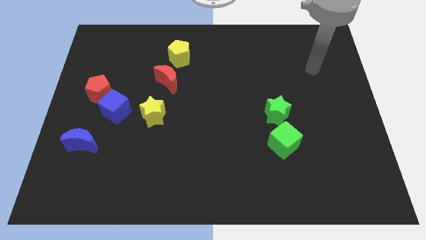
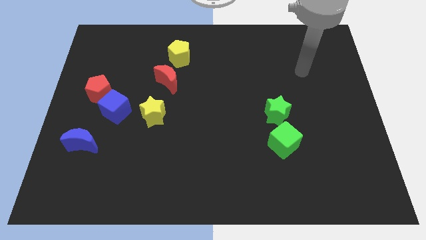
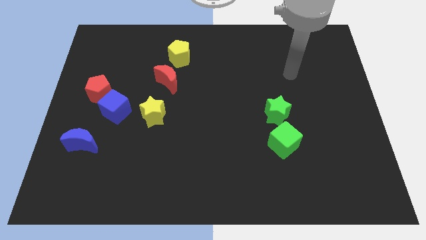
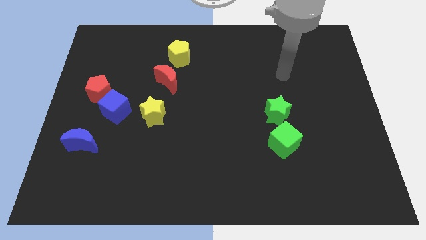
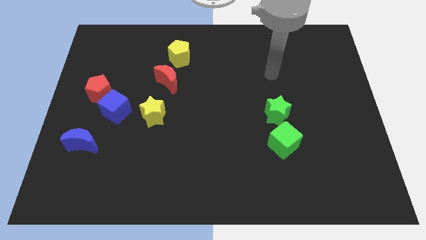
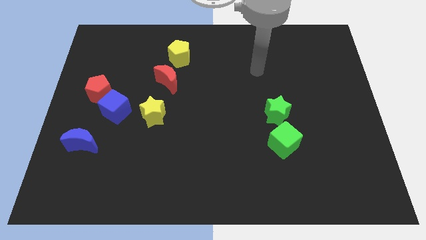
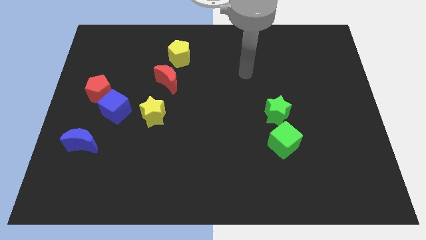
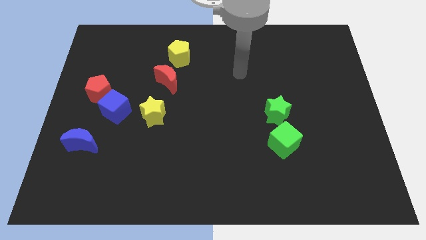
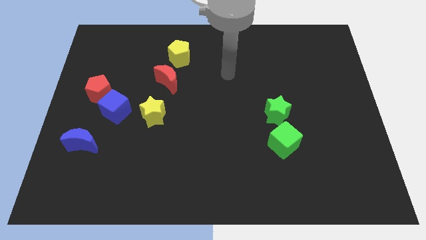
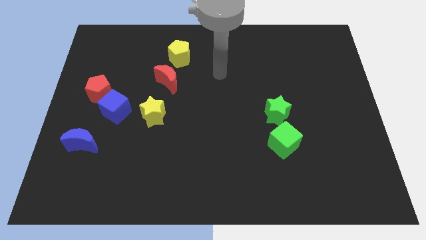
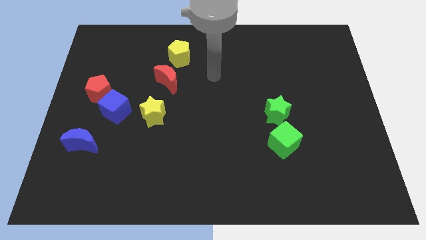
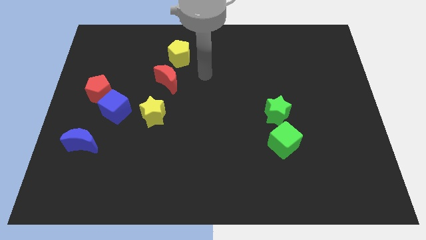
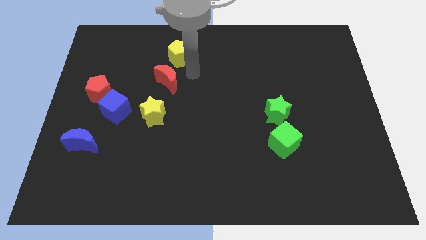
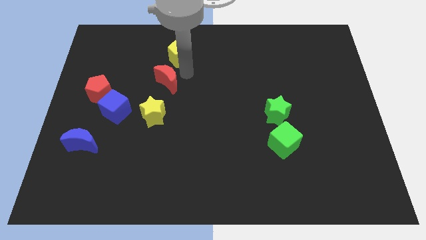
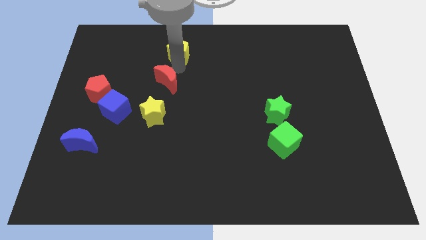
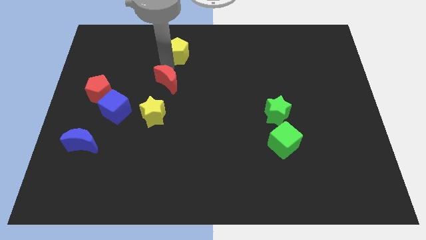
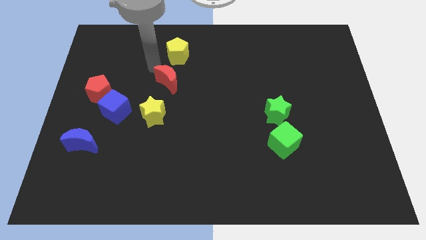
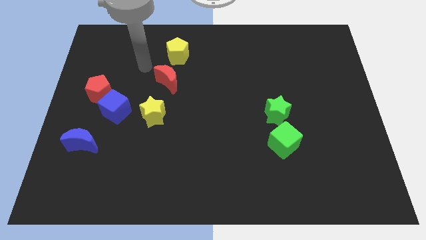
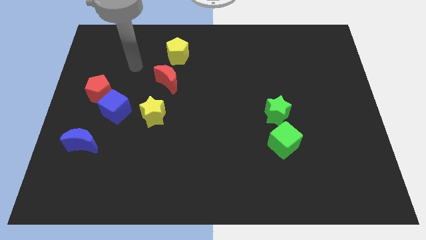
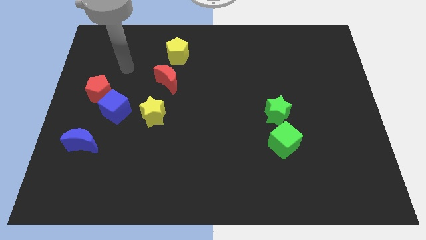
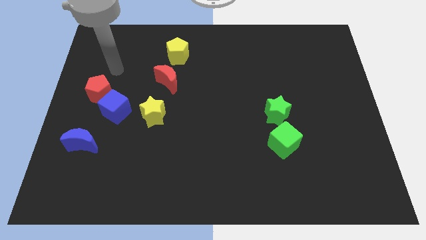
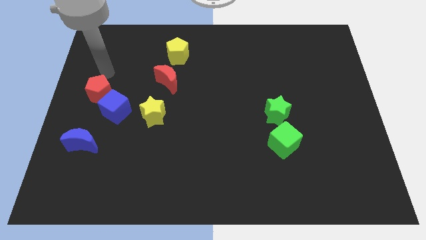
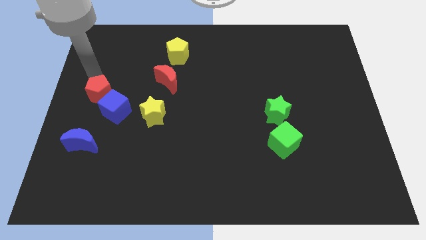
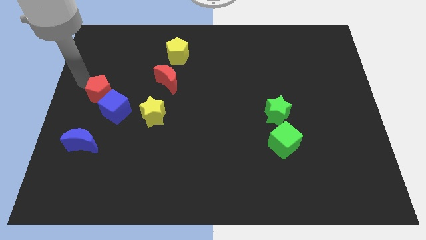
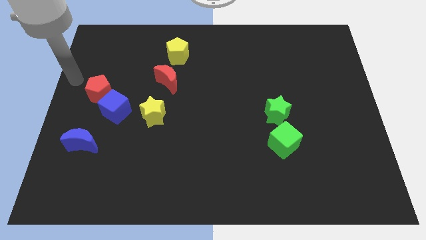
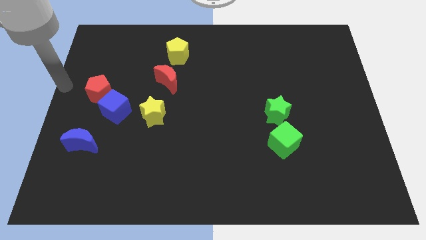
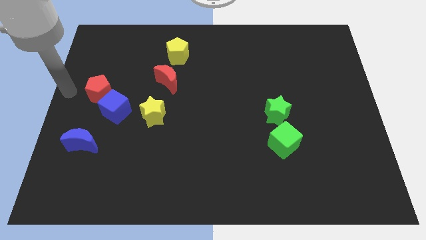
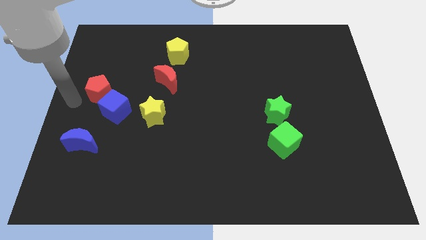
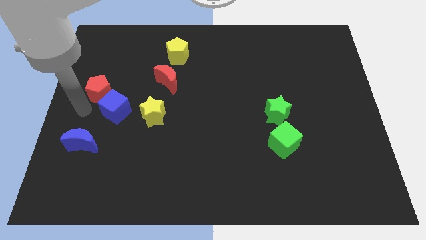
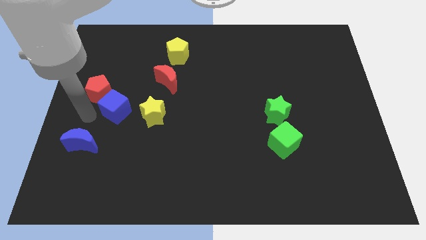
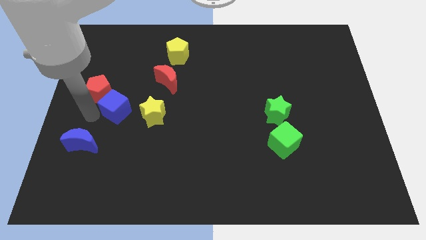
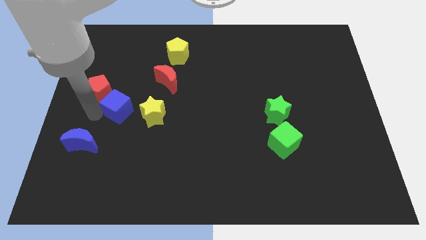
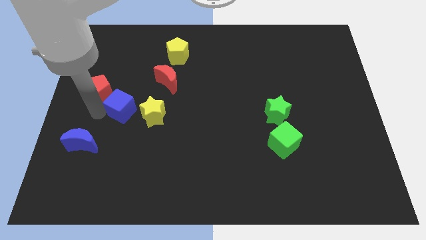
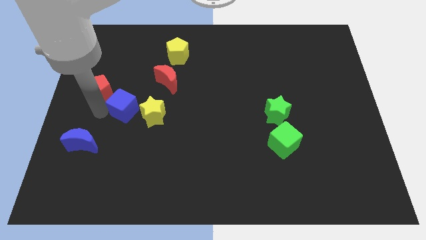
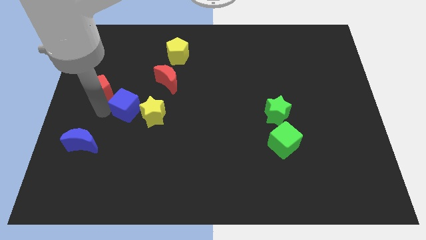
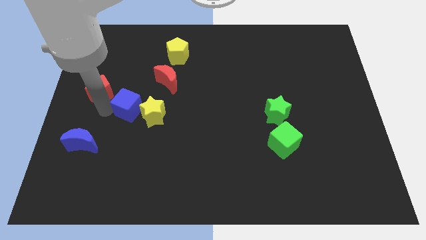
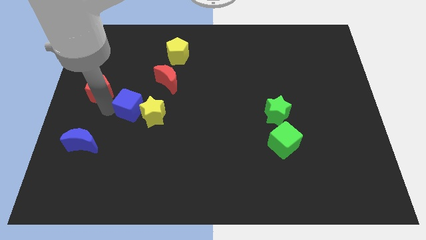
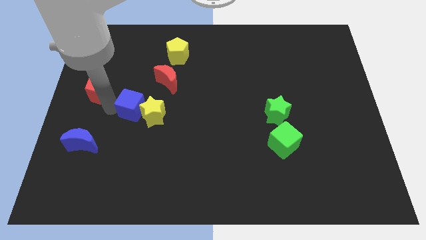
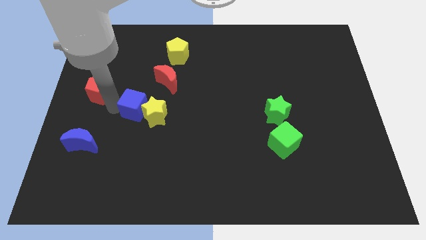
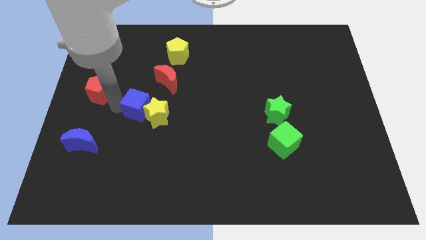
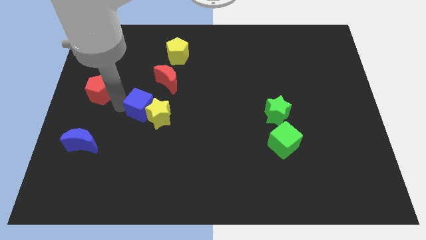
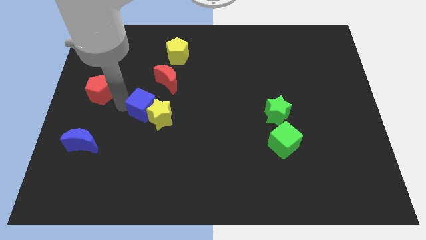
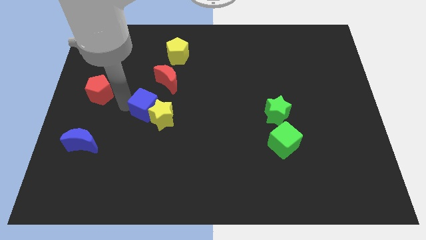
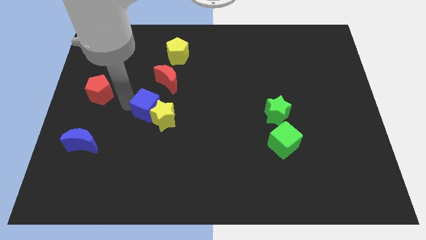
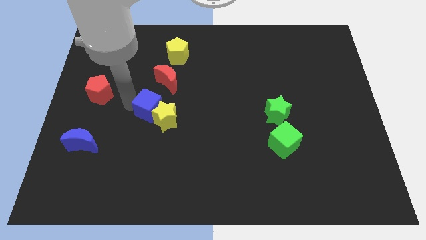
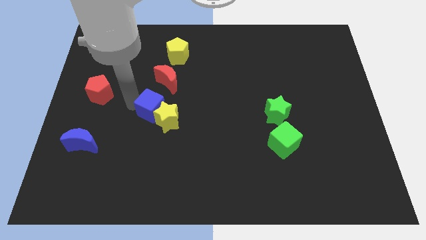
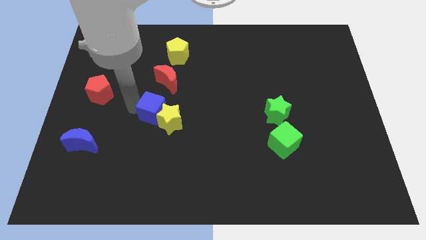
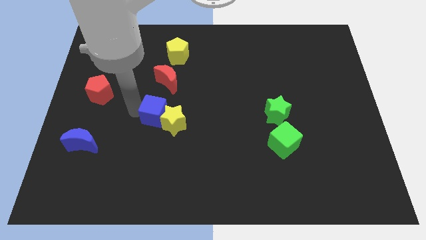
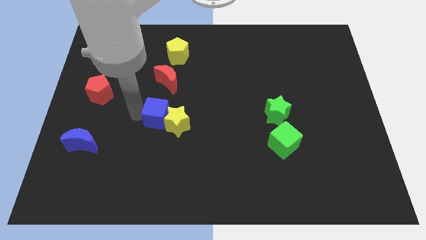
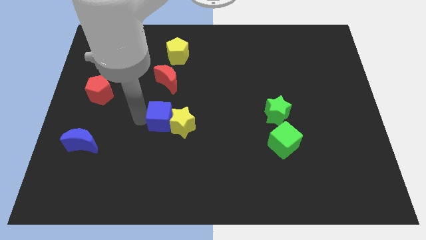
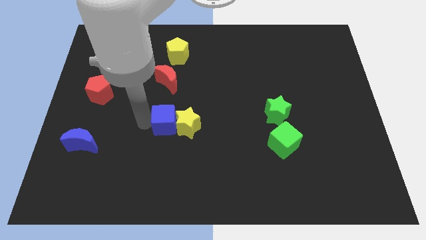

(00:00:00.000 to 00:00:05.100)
move the blue cube to the center

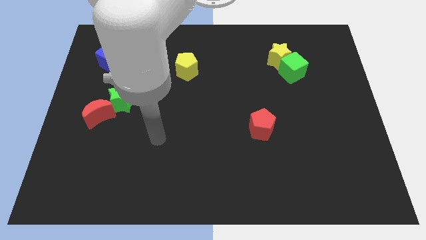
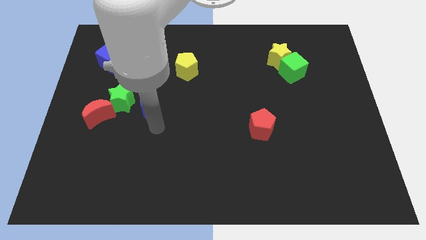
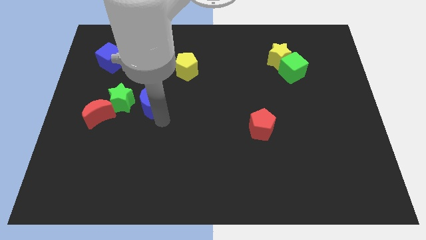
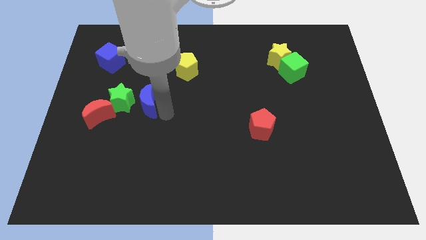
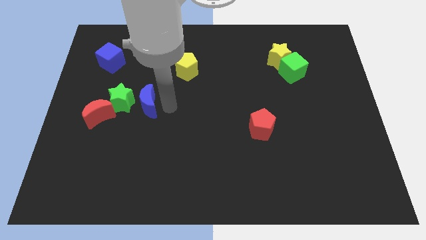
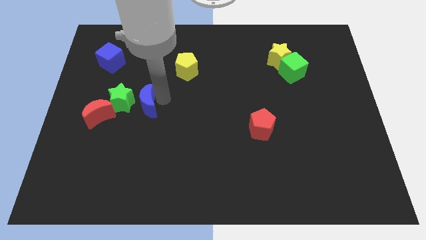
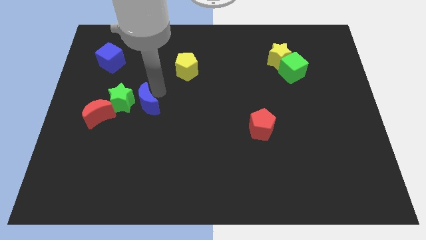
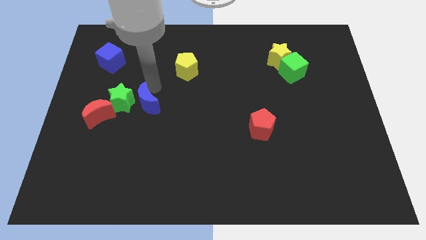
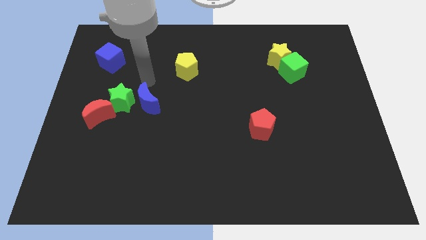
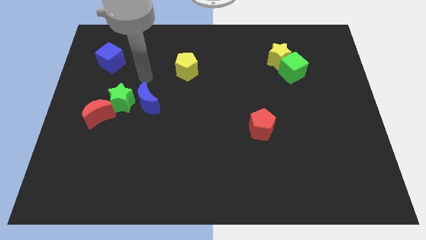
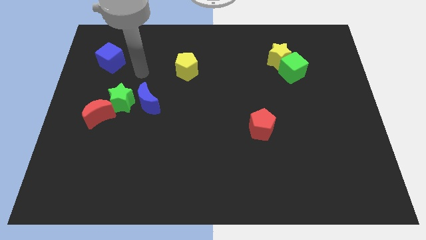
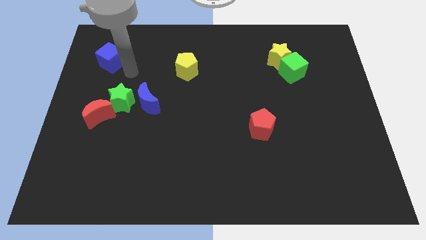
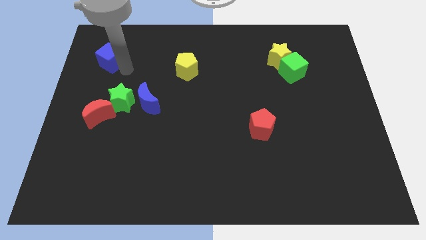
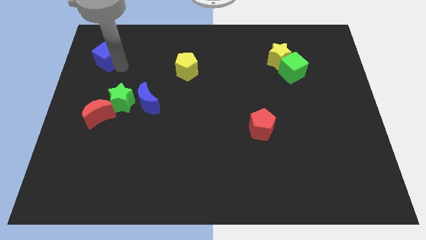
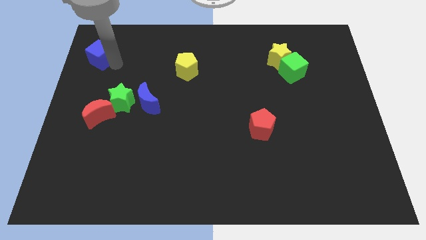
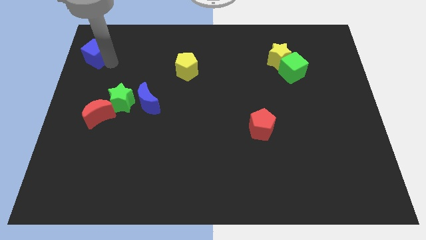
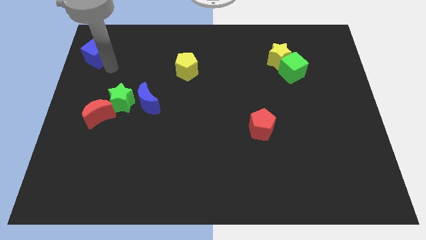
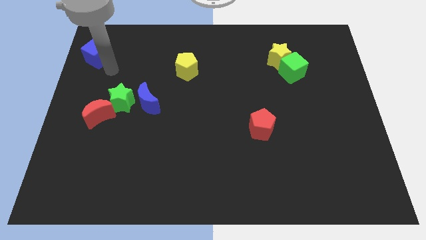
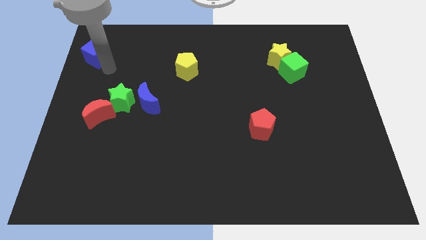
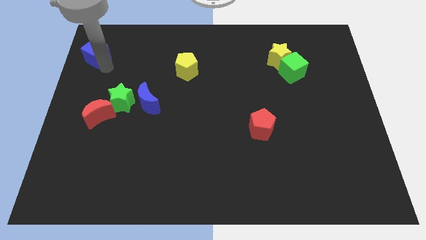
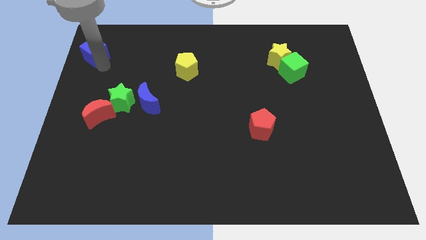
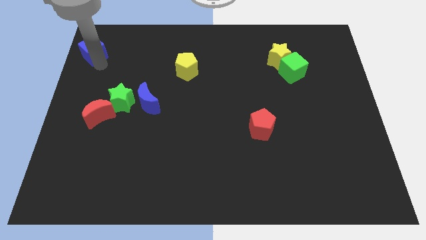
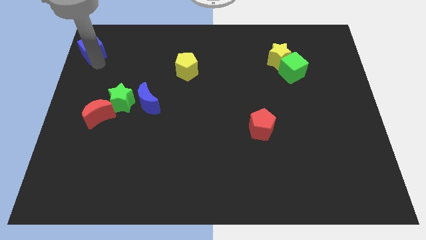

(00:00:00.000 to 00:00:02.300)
put the blue cube to the top left of the board
